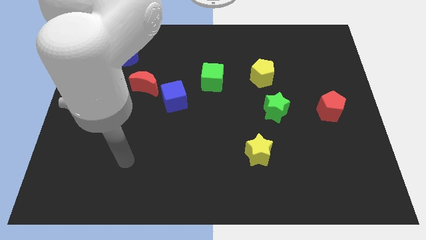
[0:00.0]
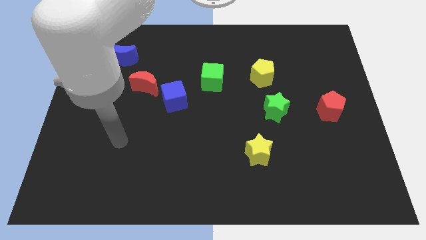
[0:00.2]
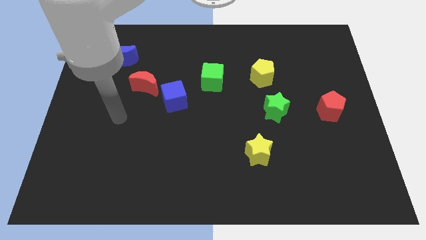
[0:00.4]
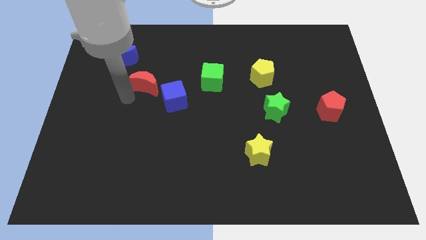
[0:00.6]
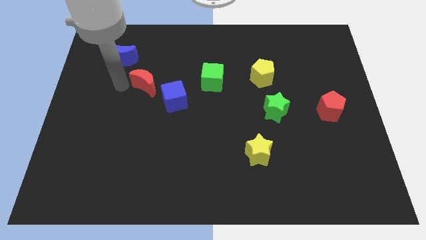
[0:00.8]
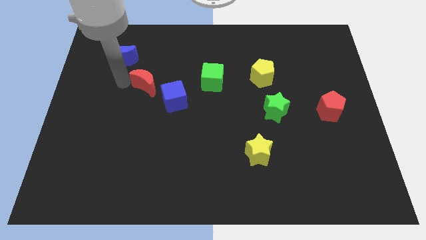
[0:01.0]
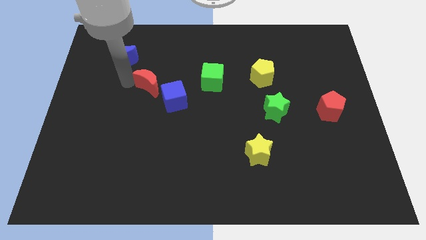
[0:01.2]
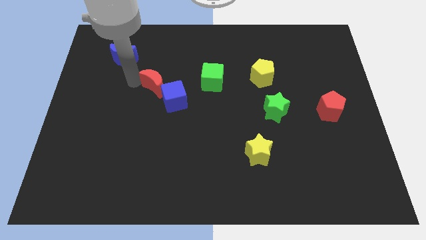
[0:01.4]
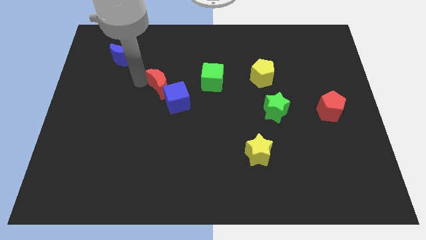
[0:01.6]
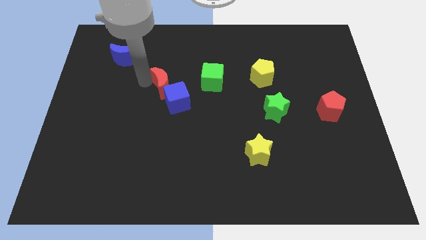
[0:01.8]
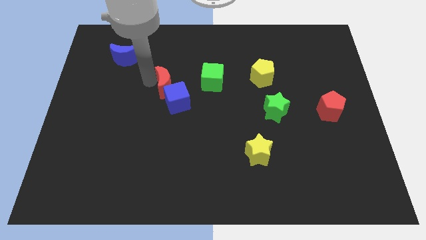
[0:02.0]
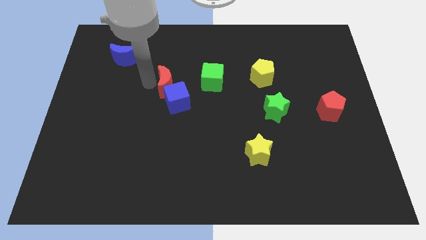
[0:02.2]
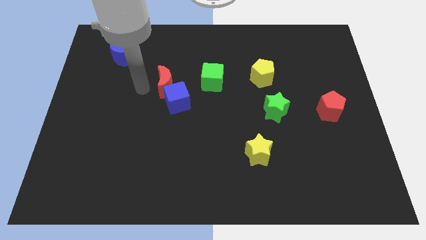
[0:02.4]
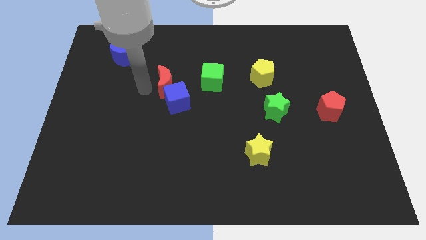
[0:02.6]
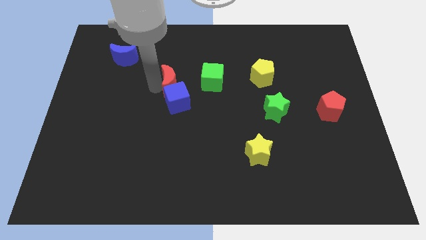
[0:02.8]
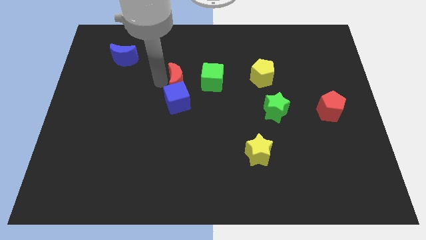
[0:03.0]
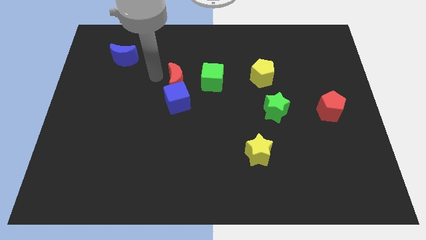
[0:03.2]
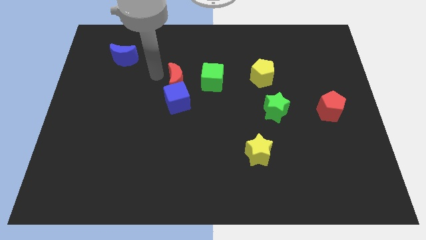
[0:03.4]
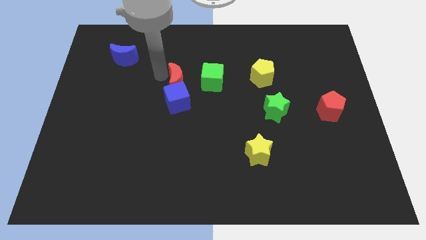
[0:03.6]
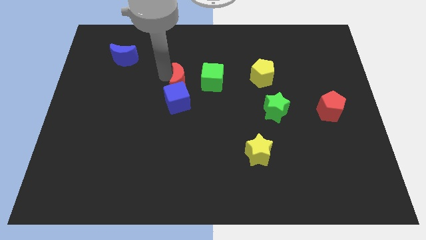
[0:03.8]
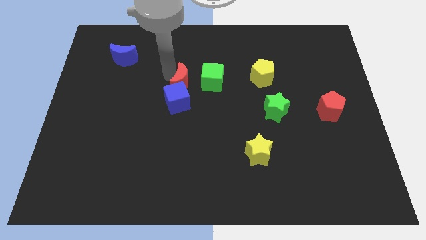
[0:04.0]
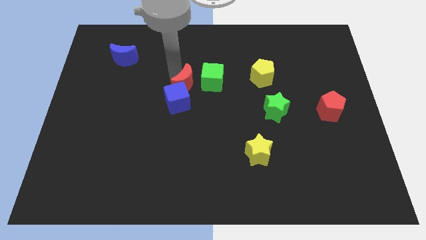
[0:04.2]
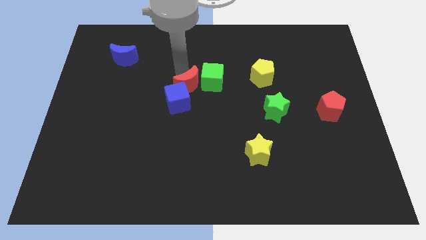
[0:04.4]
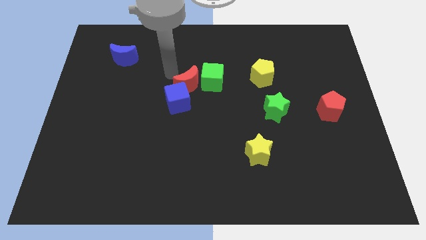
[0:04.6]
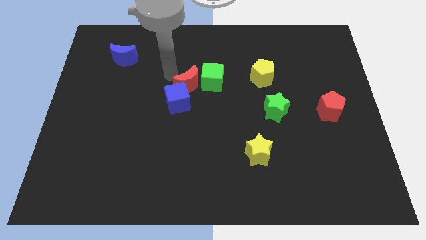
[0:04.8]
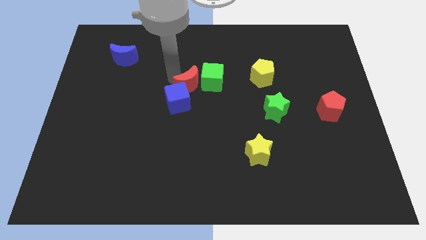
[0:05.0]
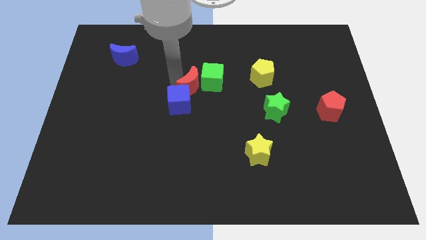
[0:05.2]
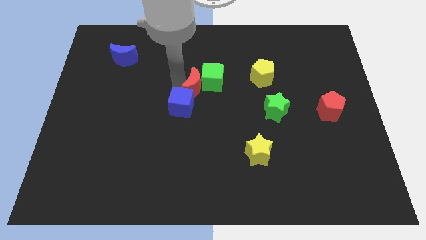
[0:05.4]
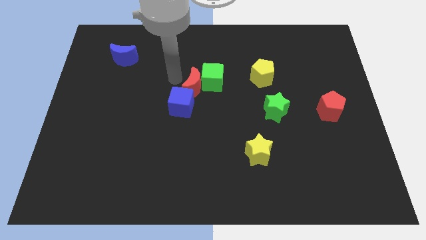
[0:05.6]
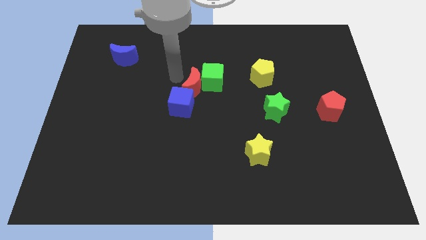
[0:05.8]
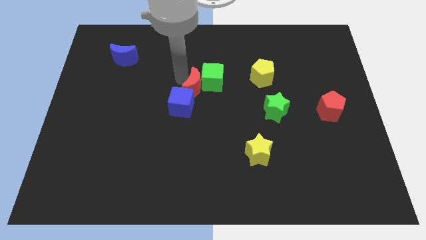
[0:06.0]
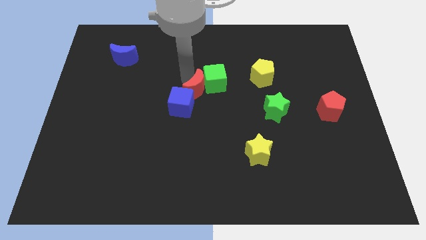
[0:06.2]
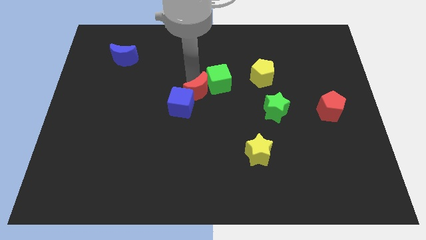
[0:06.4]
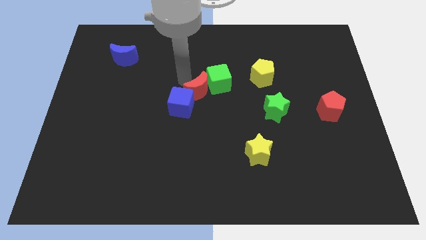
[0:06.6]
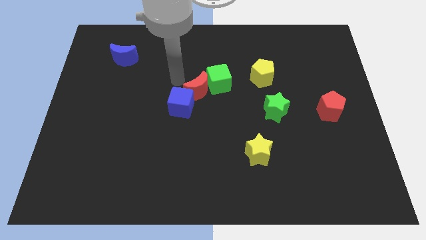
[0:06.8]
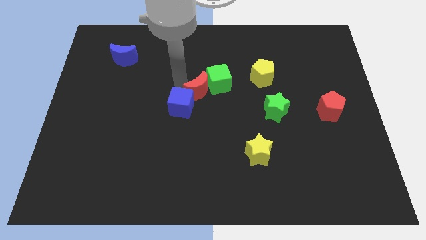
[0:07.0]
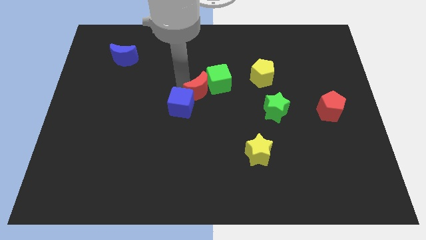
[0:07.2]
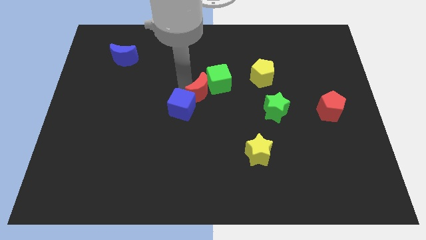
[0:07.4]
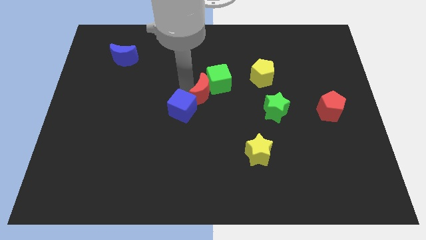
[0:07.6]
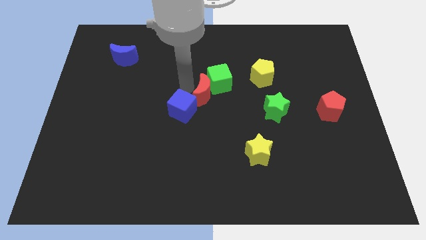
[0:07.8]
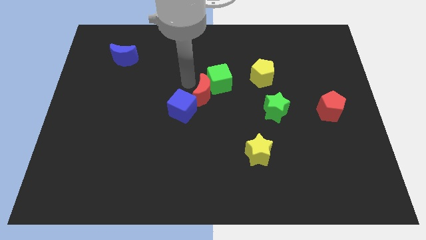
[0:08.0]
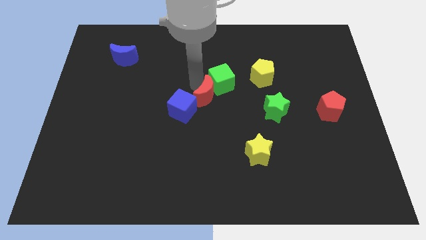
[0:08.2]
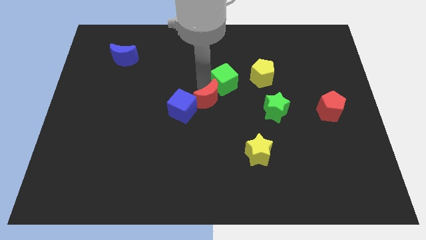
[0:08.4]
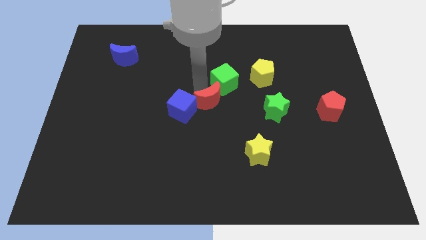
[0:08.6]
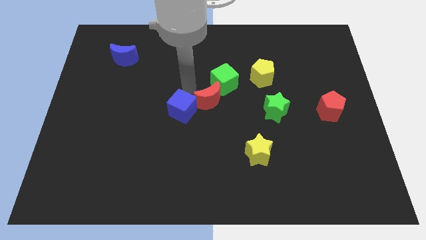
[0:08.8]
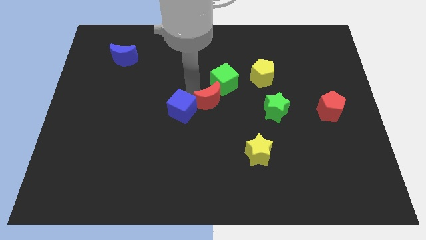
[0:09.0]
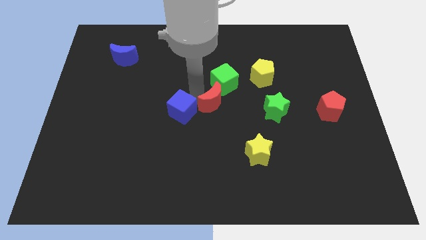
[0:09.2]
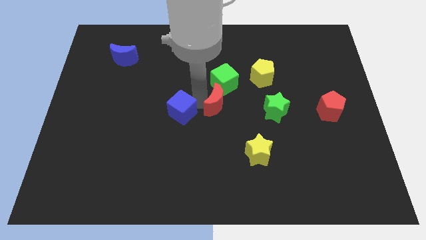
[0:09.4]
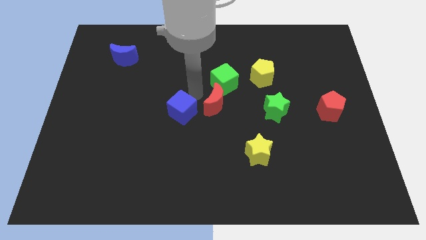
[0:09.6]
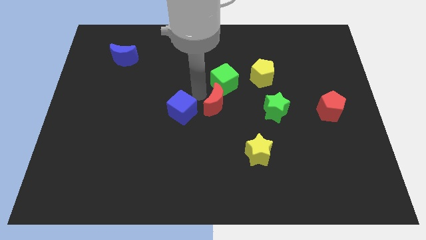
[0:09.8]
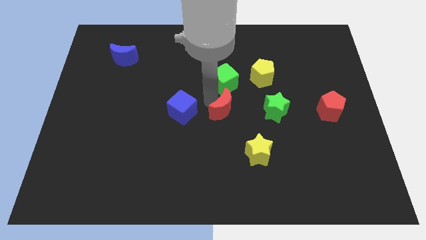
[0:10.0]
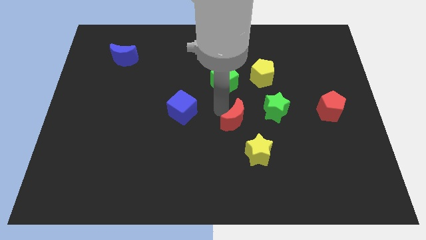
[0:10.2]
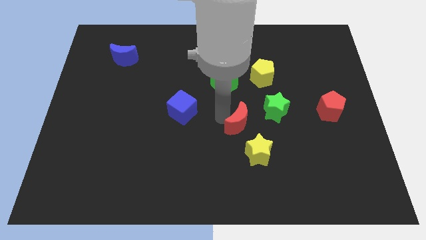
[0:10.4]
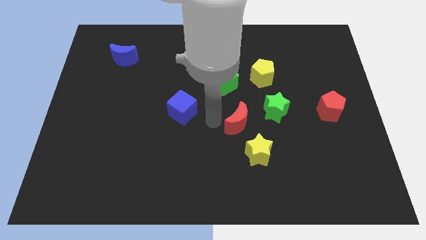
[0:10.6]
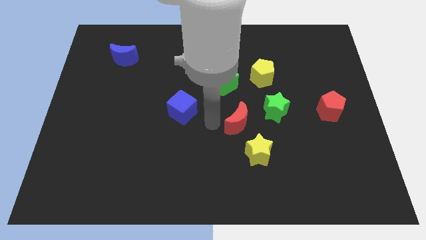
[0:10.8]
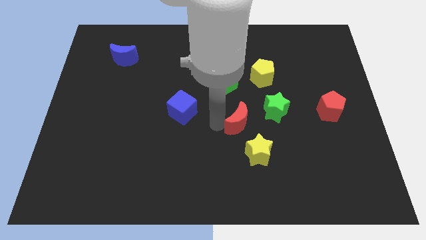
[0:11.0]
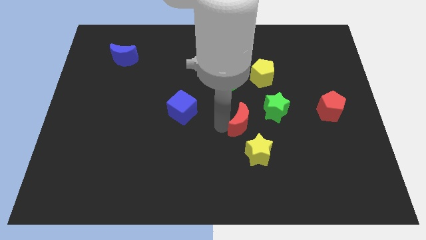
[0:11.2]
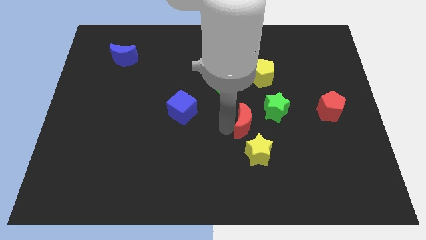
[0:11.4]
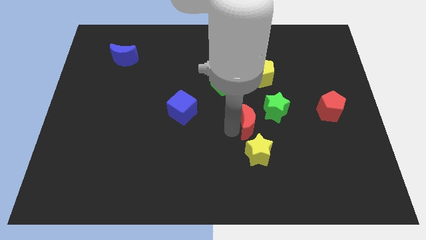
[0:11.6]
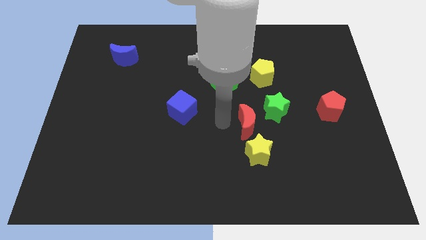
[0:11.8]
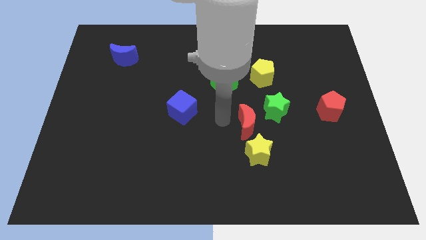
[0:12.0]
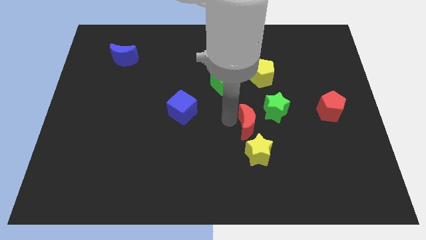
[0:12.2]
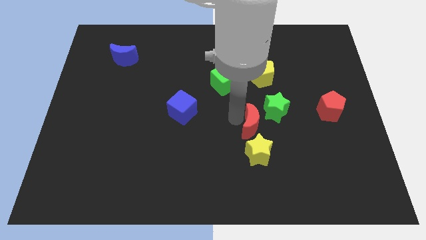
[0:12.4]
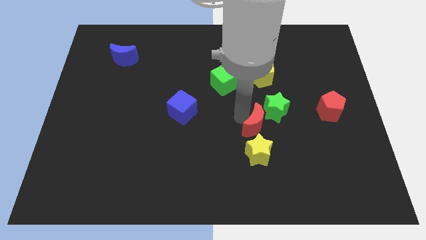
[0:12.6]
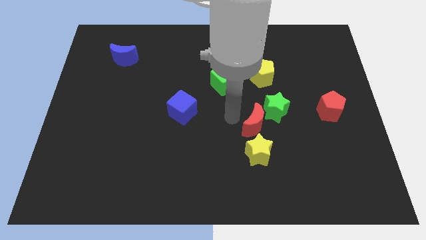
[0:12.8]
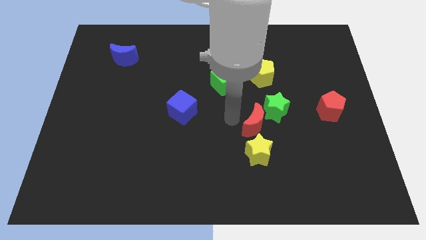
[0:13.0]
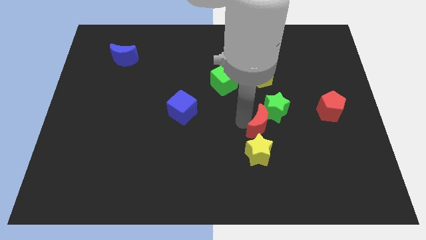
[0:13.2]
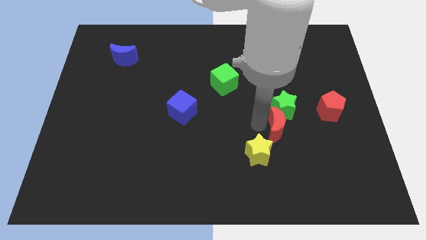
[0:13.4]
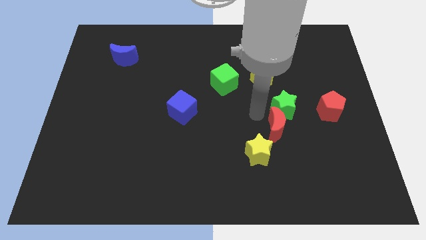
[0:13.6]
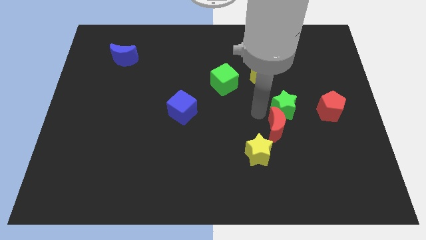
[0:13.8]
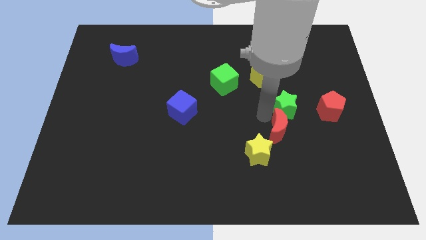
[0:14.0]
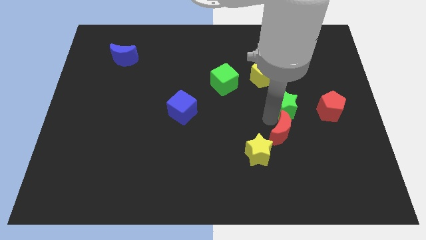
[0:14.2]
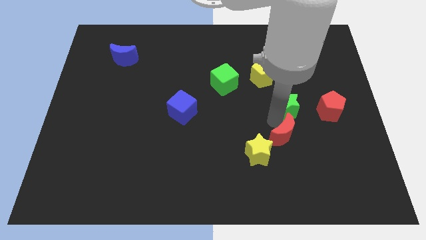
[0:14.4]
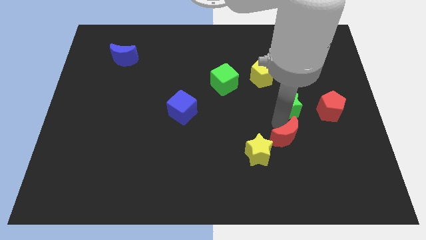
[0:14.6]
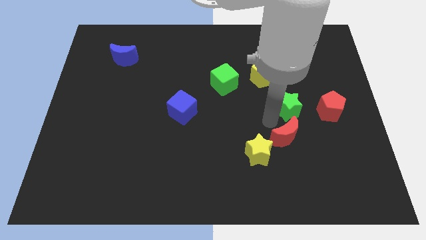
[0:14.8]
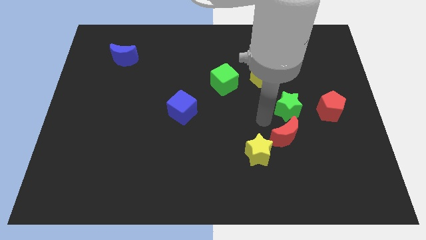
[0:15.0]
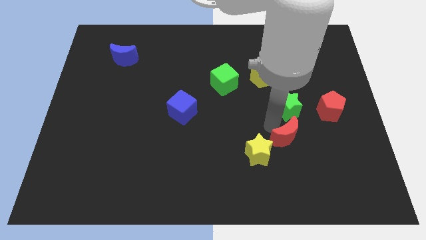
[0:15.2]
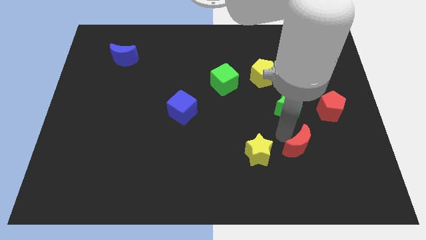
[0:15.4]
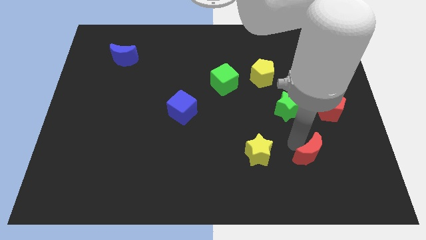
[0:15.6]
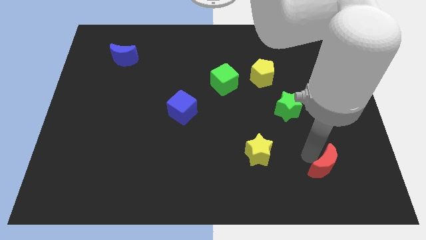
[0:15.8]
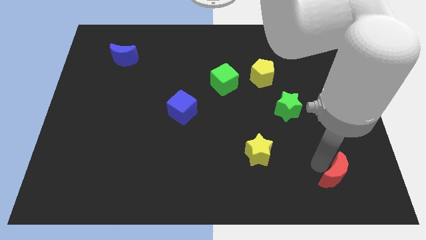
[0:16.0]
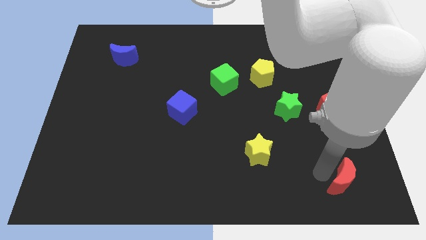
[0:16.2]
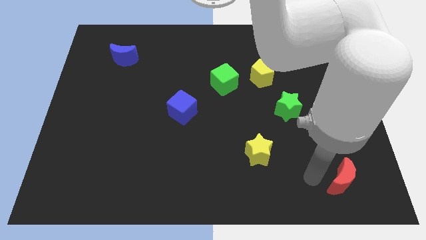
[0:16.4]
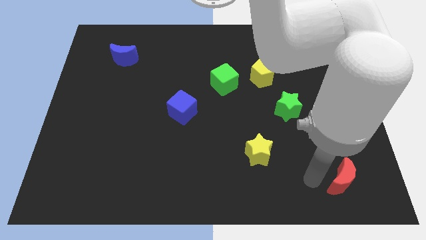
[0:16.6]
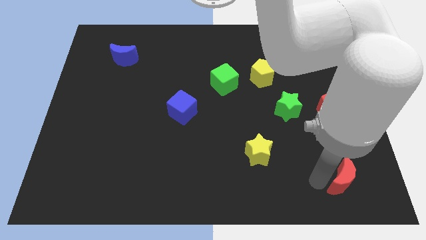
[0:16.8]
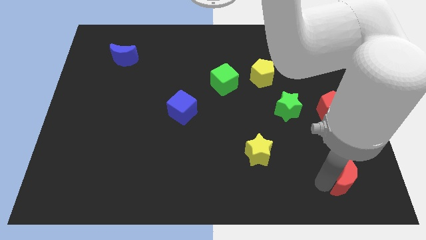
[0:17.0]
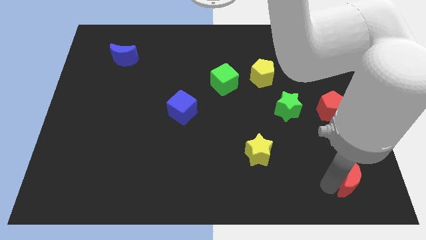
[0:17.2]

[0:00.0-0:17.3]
move the red moon to the bottom right corner
